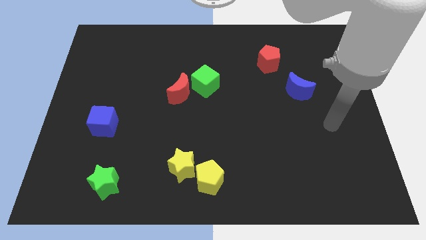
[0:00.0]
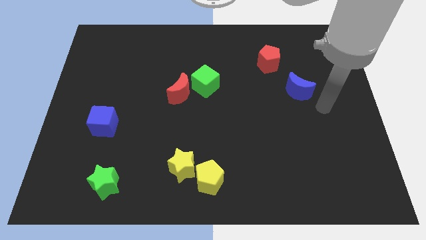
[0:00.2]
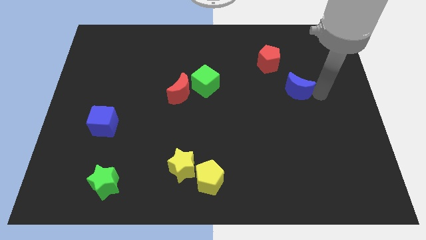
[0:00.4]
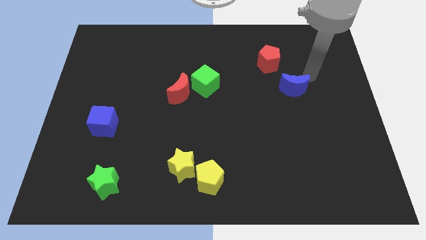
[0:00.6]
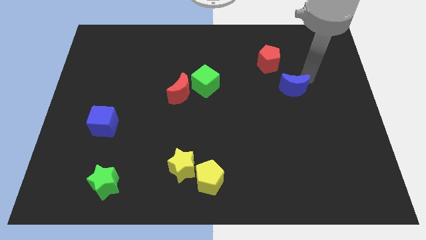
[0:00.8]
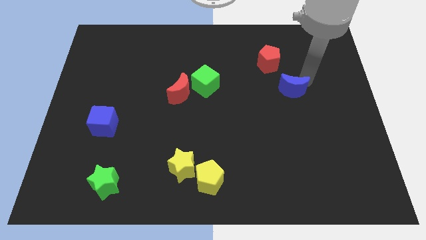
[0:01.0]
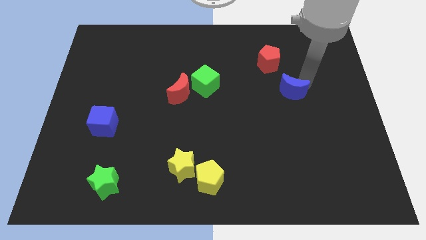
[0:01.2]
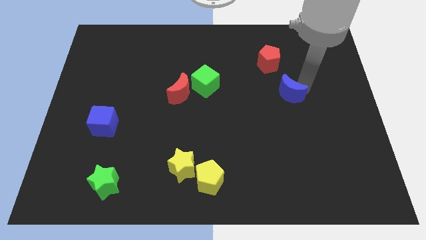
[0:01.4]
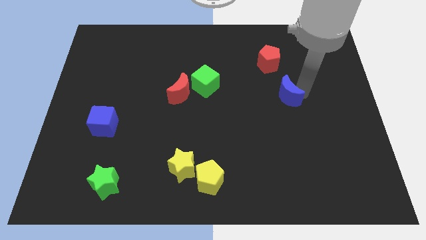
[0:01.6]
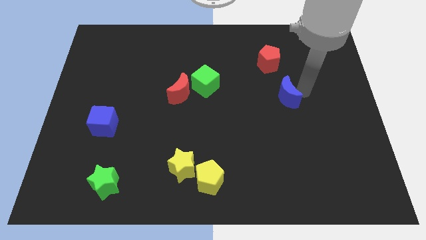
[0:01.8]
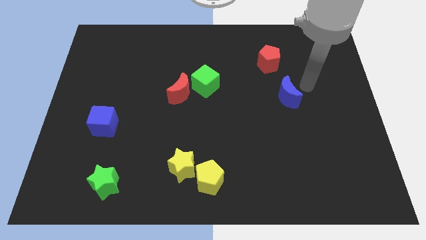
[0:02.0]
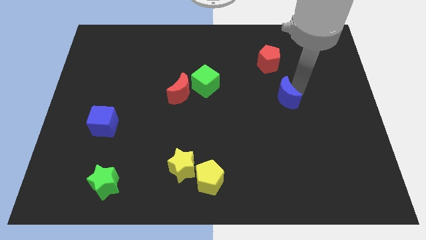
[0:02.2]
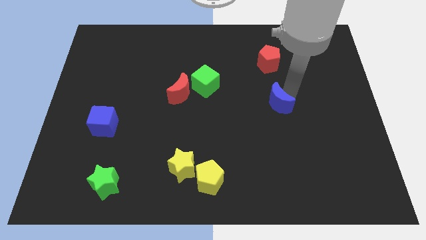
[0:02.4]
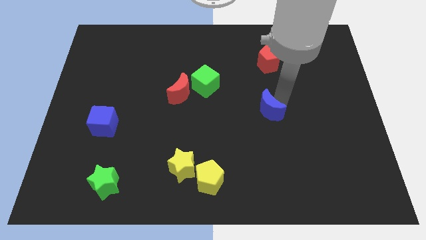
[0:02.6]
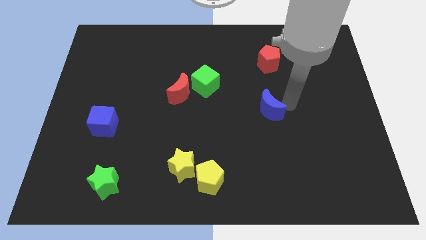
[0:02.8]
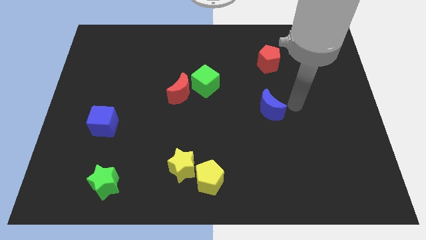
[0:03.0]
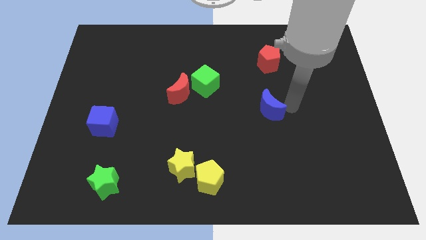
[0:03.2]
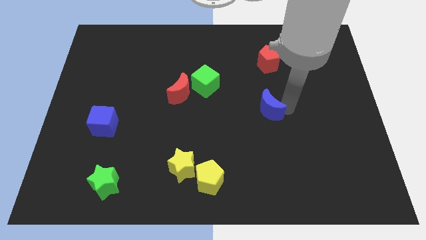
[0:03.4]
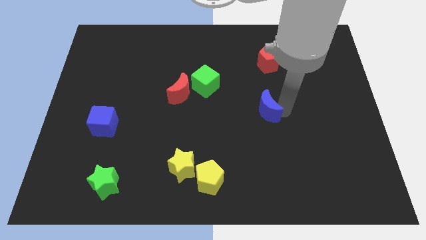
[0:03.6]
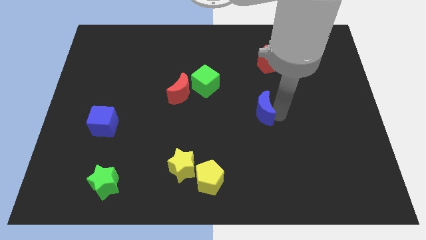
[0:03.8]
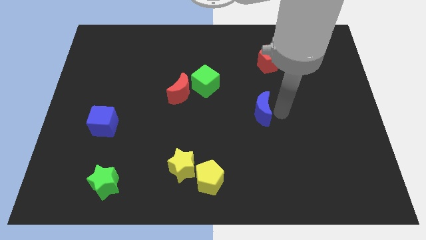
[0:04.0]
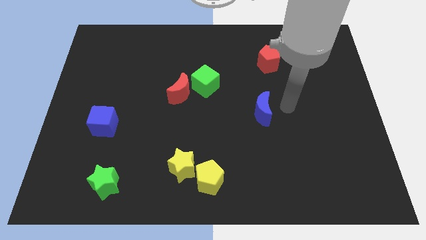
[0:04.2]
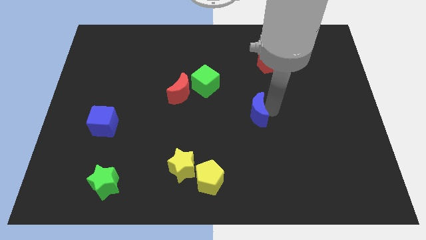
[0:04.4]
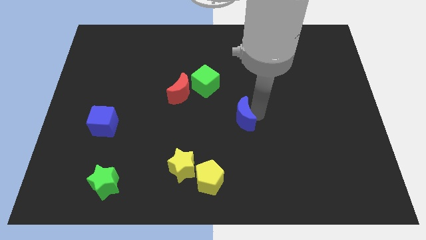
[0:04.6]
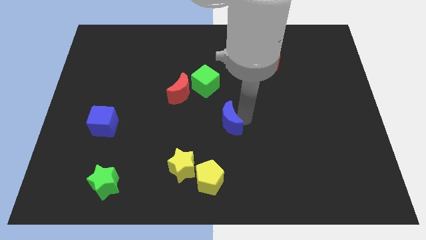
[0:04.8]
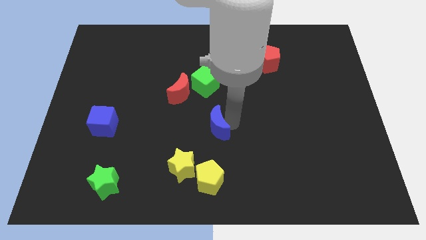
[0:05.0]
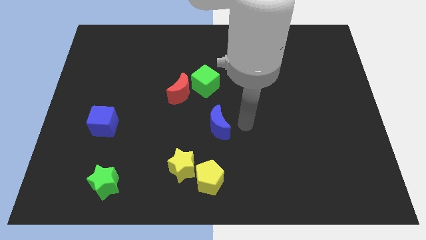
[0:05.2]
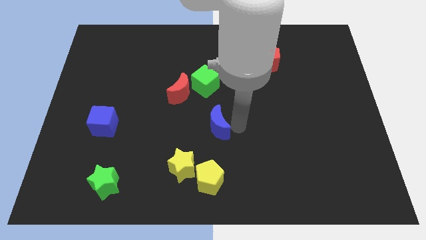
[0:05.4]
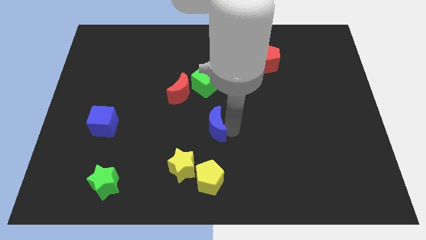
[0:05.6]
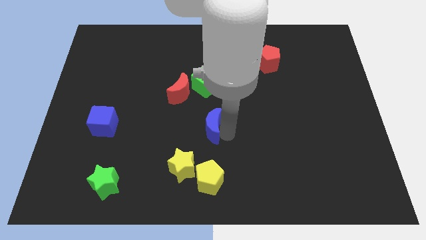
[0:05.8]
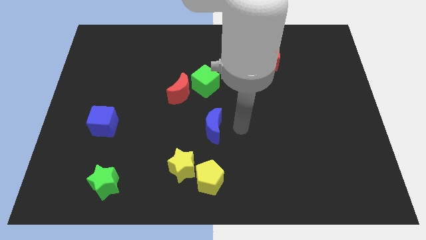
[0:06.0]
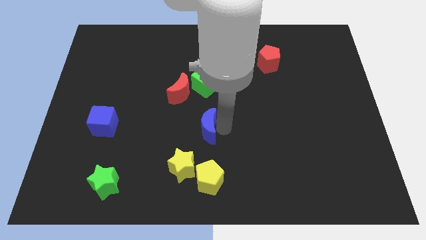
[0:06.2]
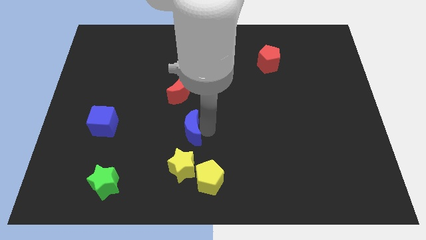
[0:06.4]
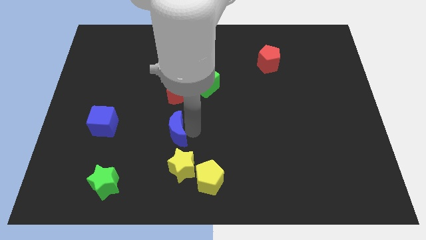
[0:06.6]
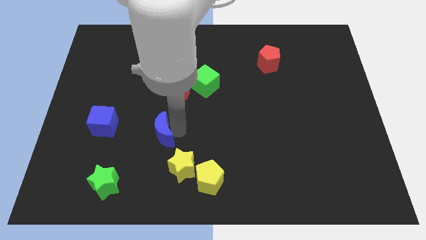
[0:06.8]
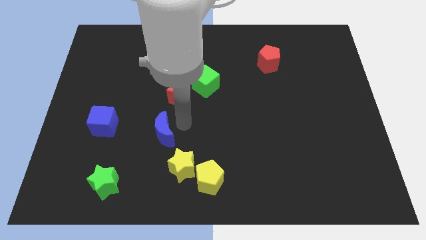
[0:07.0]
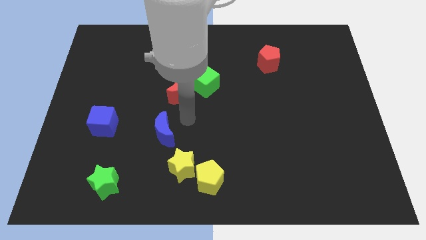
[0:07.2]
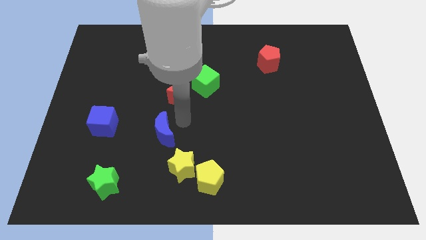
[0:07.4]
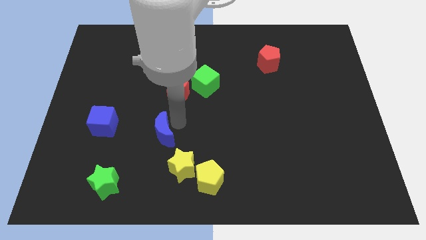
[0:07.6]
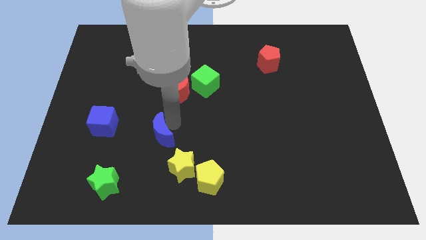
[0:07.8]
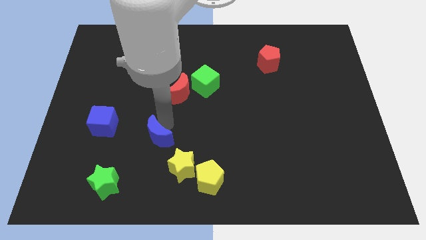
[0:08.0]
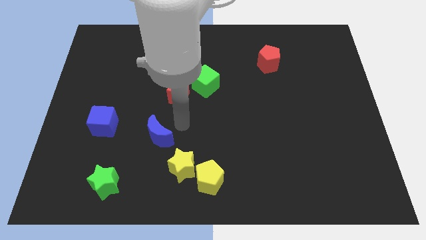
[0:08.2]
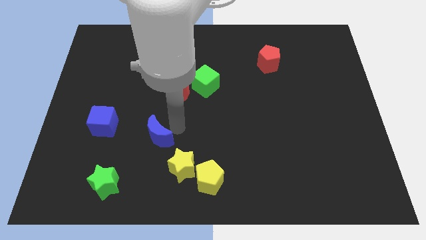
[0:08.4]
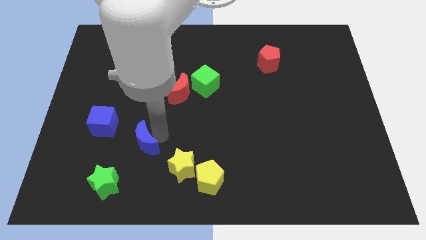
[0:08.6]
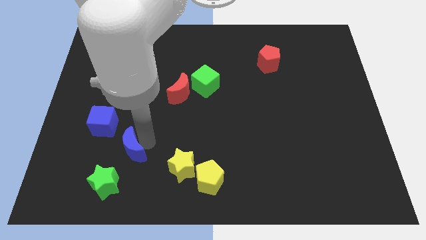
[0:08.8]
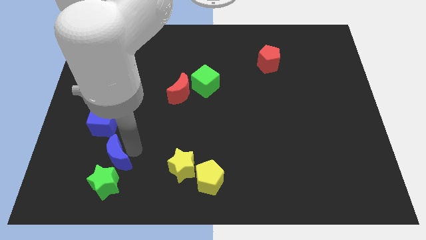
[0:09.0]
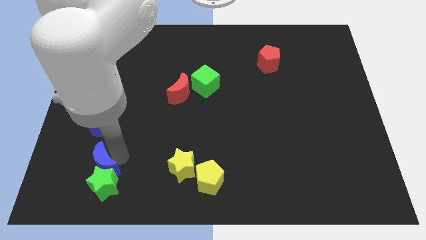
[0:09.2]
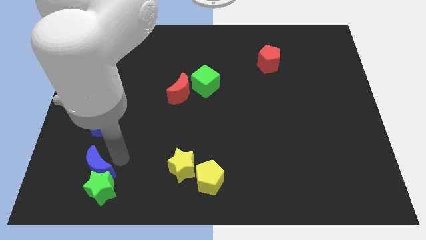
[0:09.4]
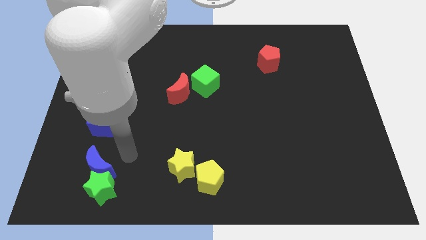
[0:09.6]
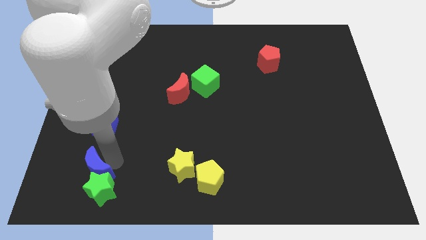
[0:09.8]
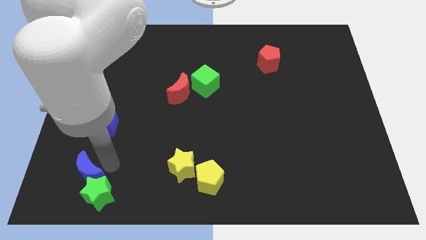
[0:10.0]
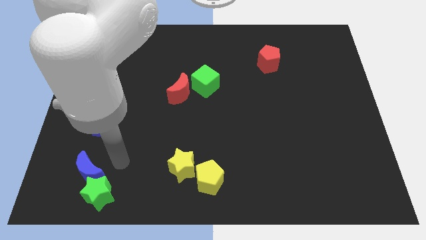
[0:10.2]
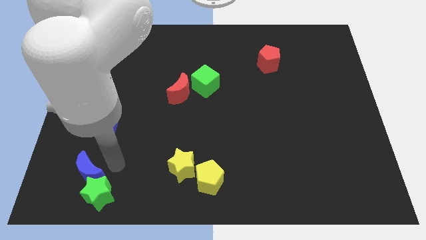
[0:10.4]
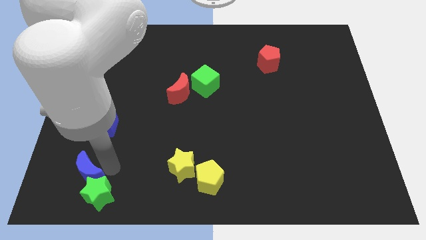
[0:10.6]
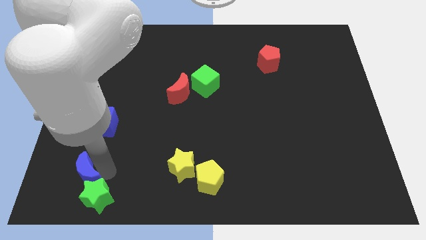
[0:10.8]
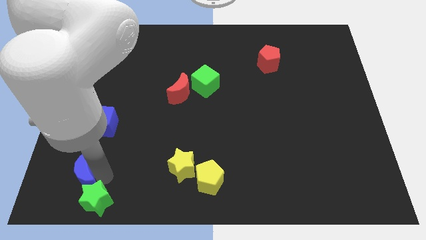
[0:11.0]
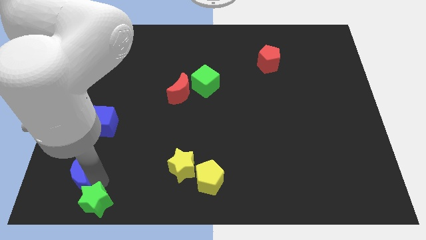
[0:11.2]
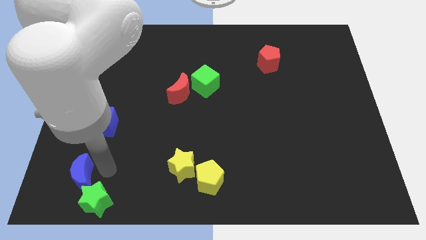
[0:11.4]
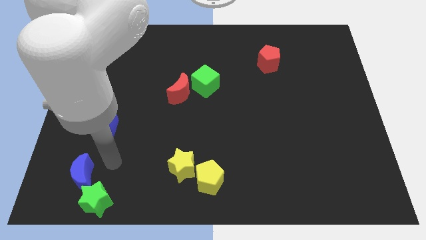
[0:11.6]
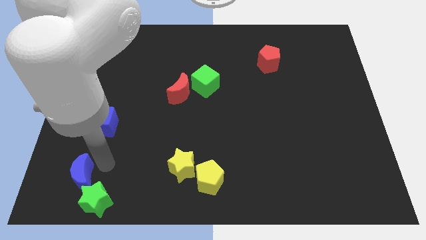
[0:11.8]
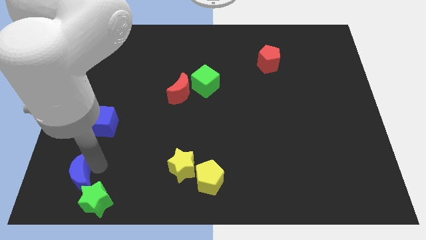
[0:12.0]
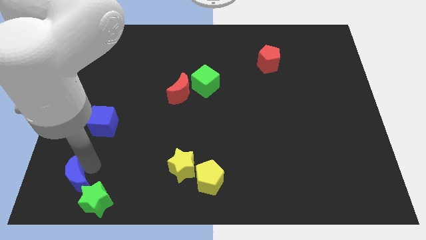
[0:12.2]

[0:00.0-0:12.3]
push the blue moon to the bottom left of the board

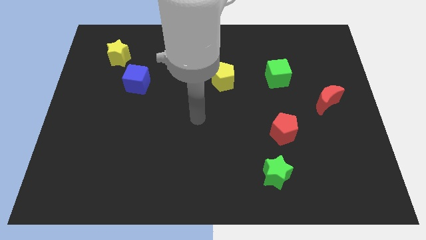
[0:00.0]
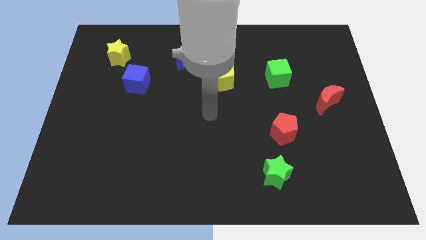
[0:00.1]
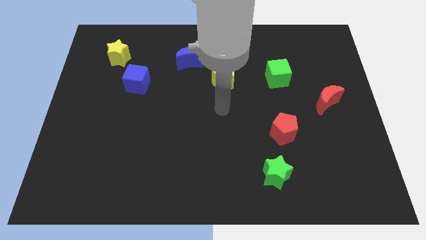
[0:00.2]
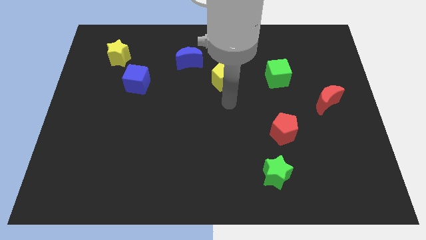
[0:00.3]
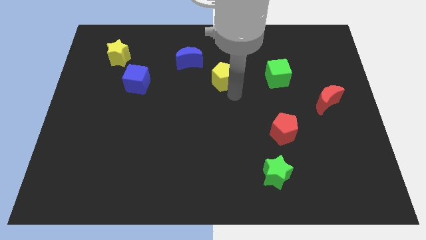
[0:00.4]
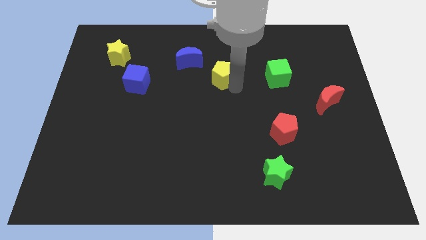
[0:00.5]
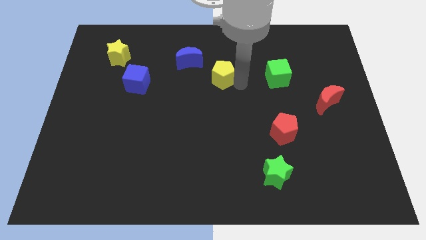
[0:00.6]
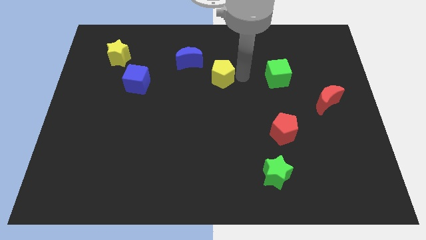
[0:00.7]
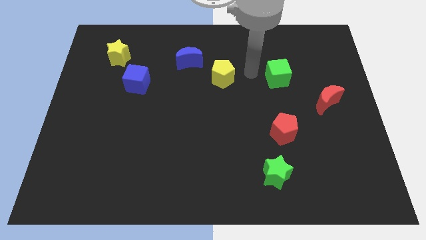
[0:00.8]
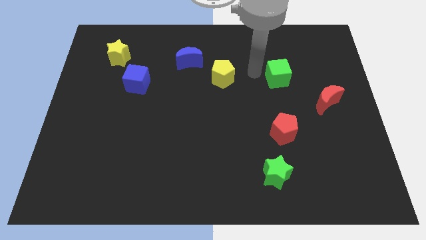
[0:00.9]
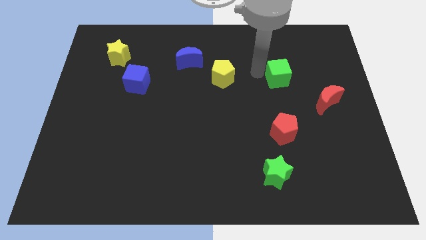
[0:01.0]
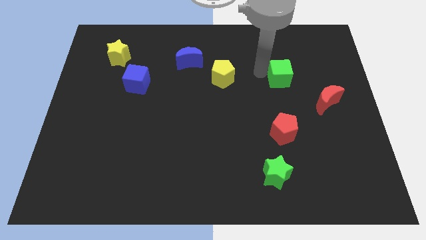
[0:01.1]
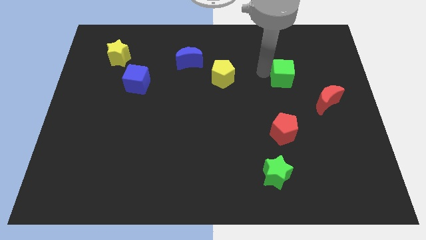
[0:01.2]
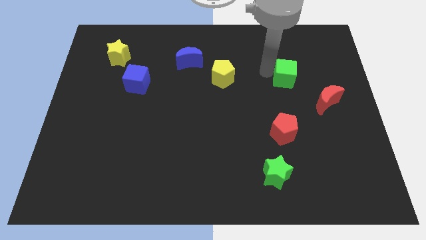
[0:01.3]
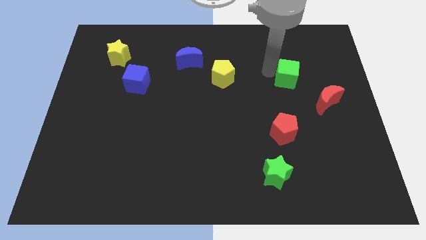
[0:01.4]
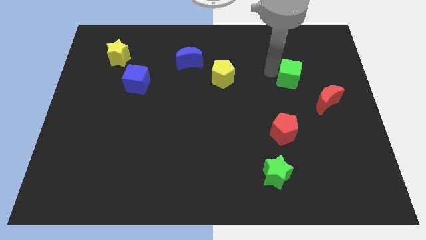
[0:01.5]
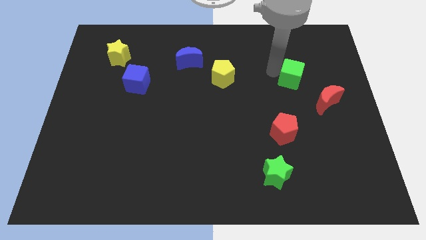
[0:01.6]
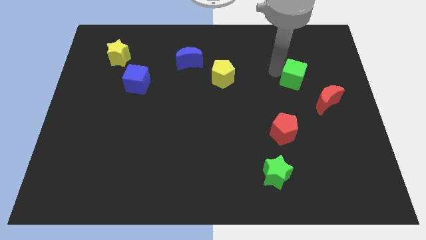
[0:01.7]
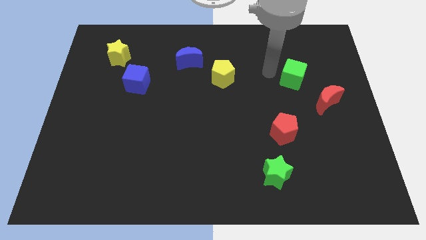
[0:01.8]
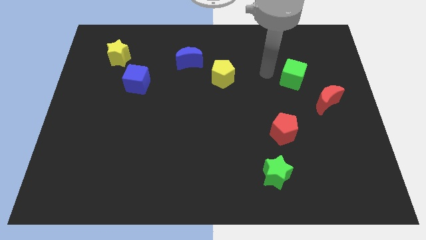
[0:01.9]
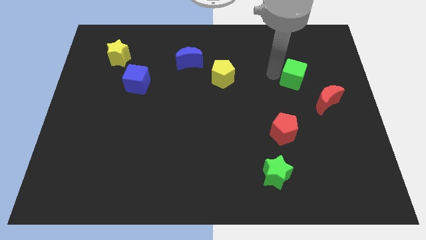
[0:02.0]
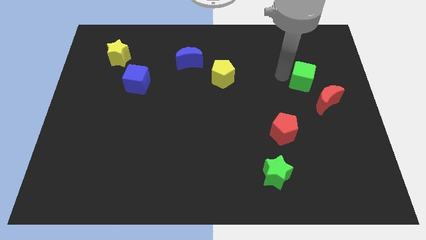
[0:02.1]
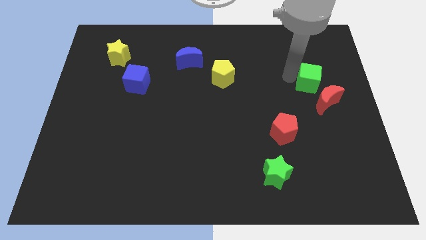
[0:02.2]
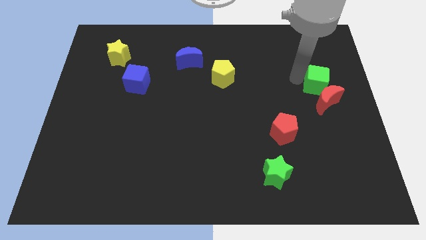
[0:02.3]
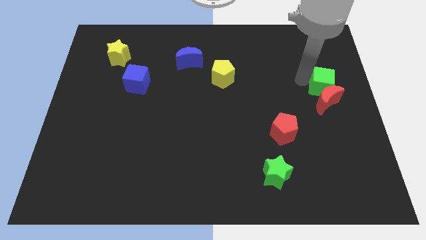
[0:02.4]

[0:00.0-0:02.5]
put the green cube to the right side of the board
